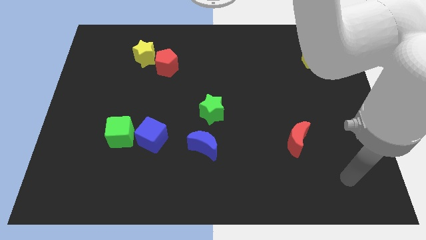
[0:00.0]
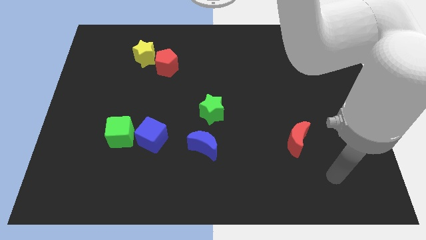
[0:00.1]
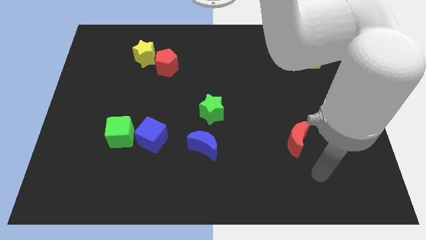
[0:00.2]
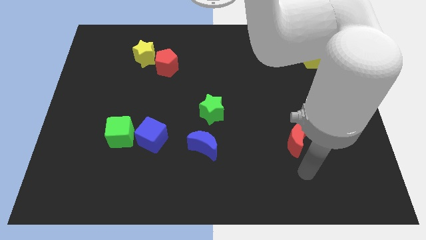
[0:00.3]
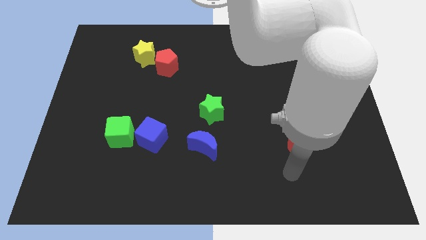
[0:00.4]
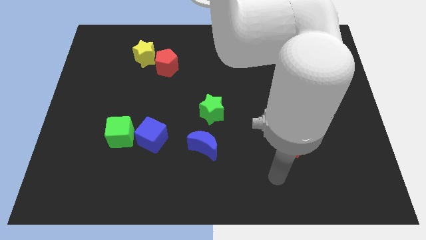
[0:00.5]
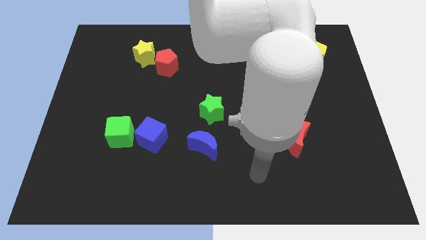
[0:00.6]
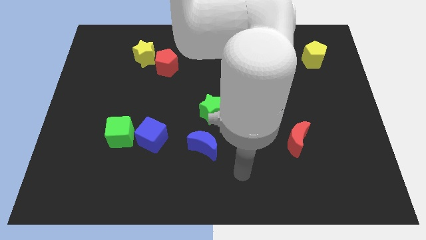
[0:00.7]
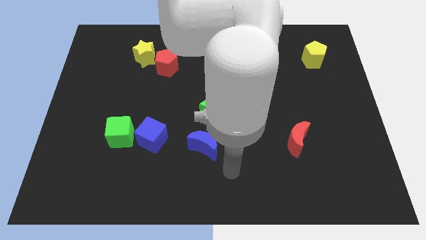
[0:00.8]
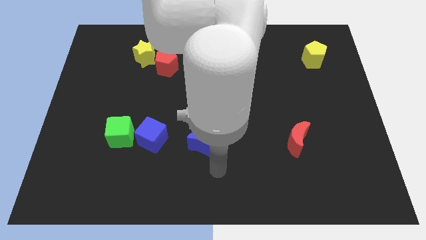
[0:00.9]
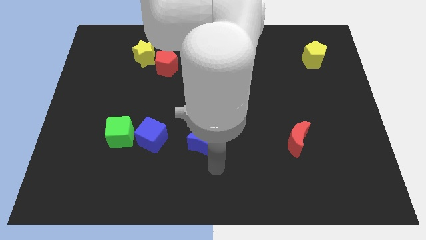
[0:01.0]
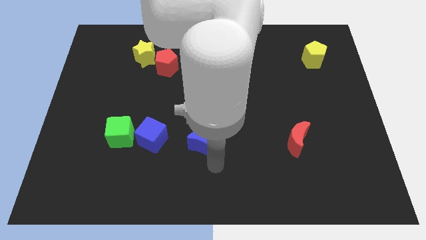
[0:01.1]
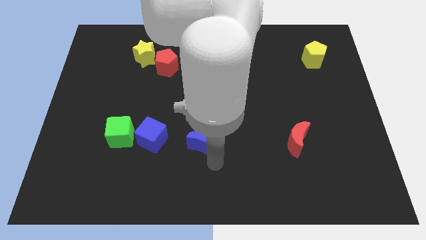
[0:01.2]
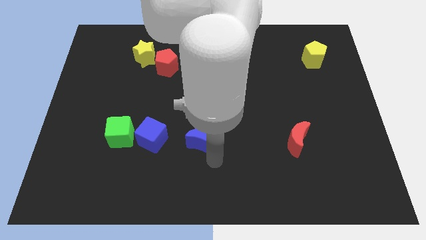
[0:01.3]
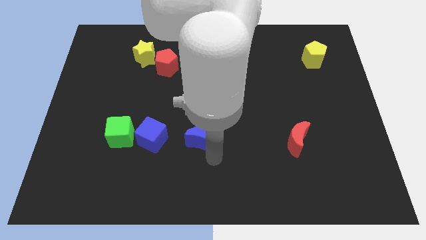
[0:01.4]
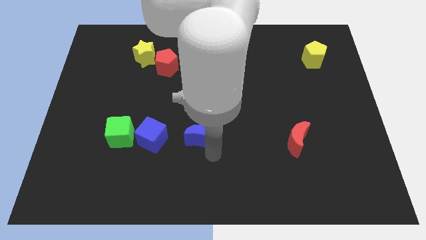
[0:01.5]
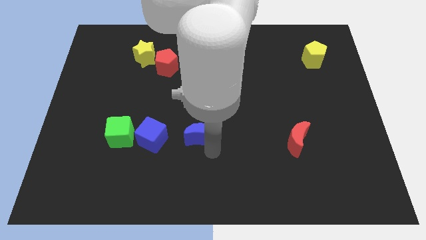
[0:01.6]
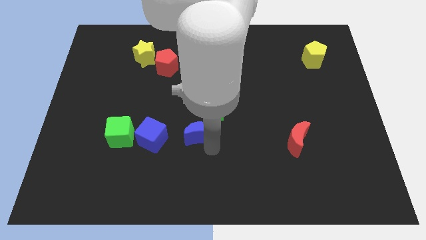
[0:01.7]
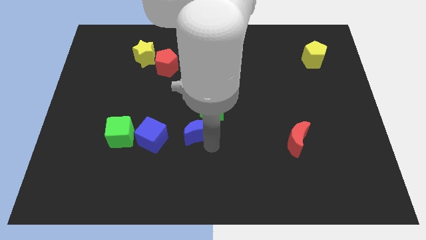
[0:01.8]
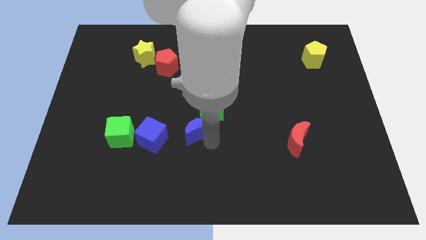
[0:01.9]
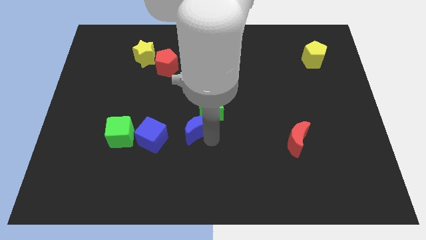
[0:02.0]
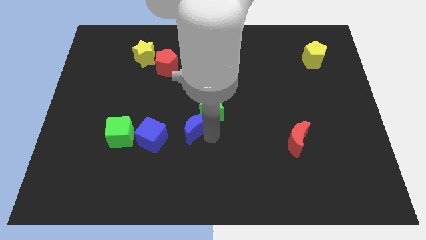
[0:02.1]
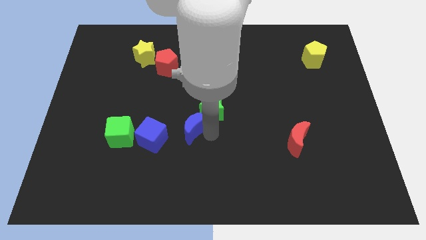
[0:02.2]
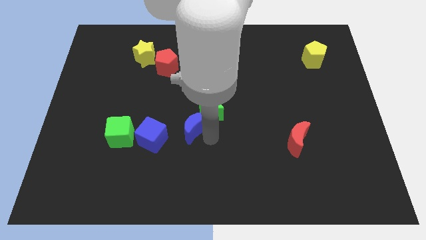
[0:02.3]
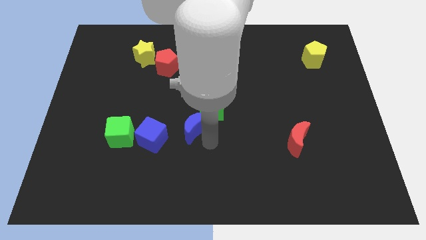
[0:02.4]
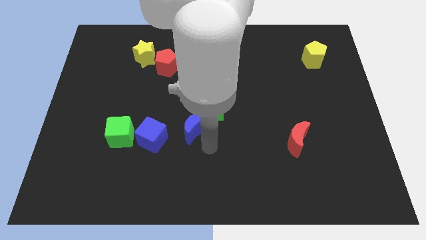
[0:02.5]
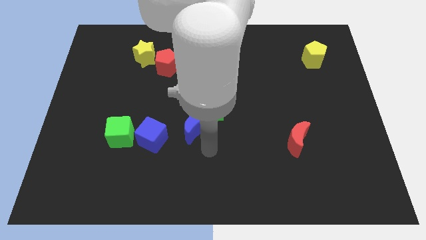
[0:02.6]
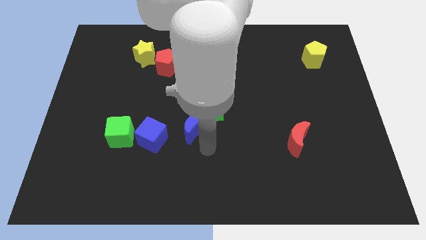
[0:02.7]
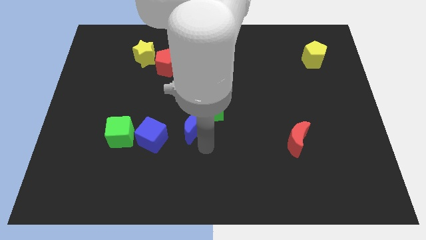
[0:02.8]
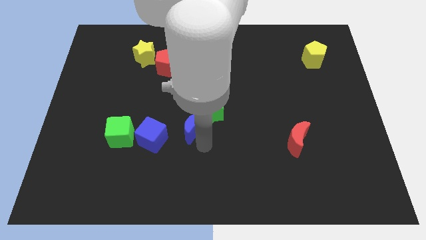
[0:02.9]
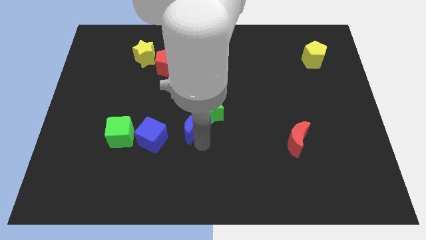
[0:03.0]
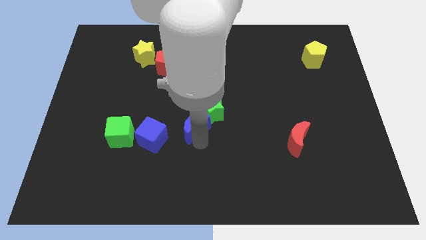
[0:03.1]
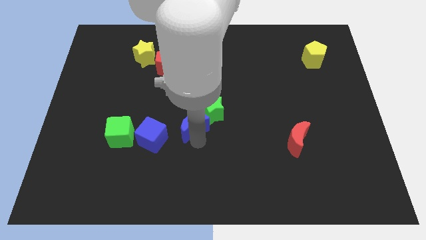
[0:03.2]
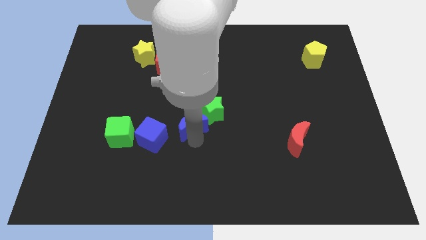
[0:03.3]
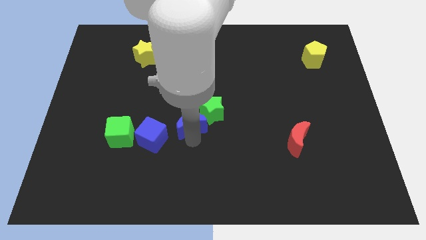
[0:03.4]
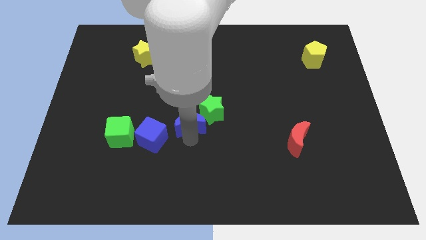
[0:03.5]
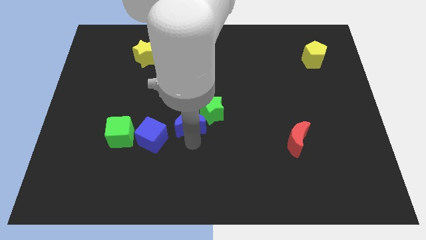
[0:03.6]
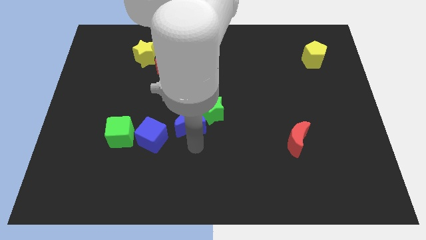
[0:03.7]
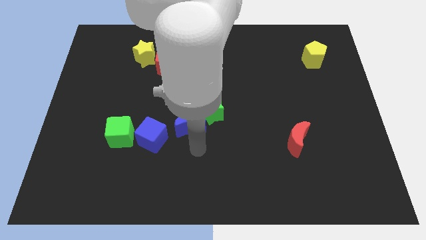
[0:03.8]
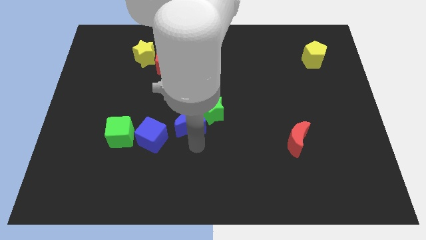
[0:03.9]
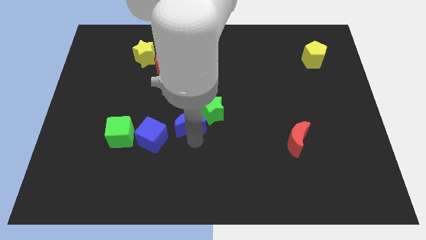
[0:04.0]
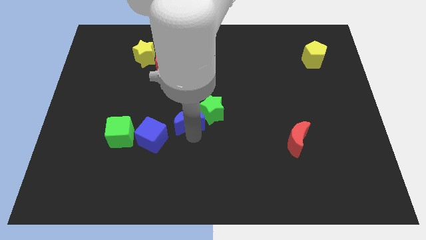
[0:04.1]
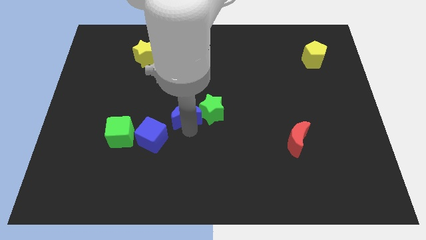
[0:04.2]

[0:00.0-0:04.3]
slide the blue moon a little upwards

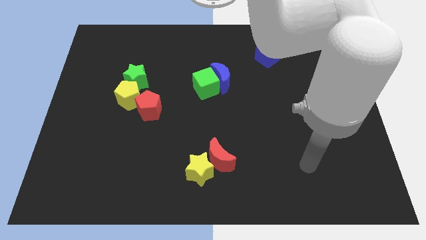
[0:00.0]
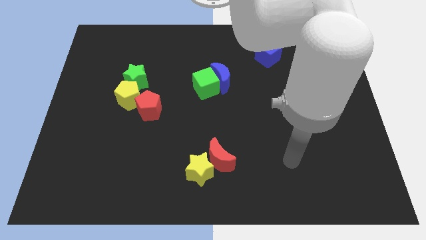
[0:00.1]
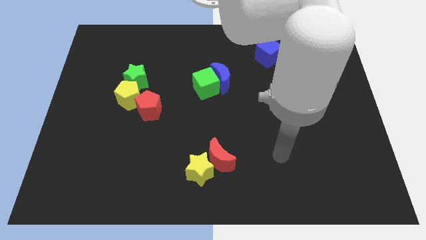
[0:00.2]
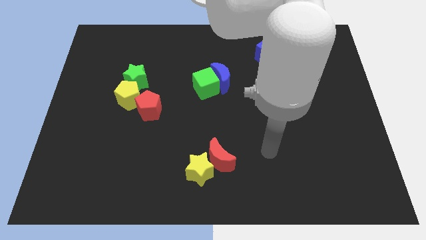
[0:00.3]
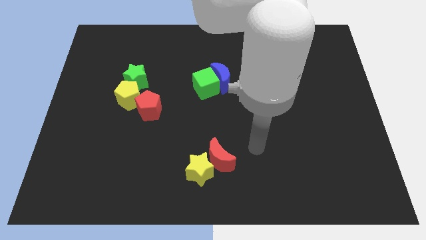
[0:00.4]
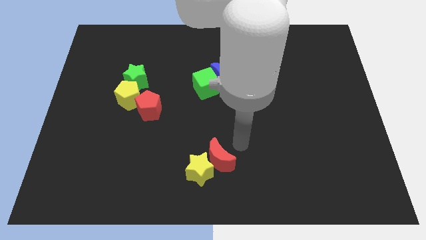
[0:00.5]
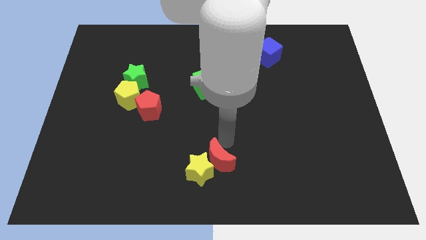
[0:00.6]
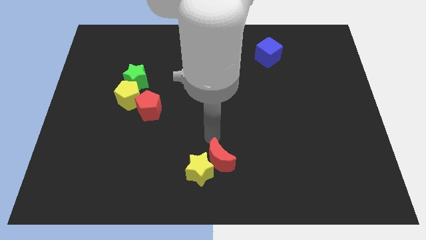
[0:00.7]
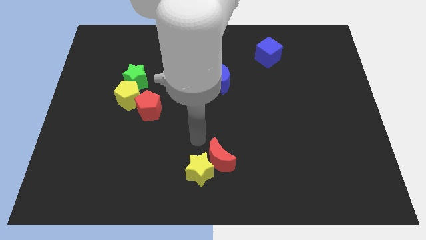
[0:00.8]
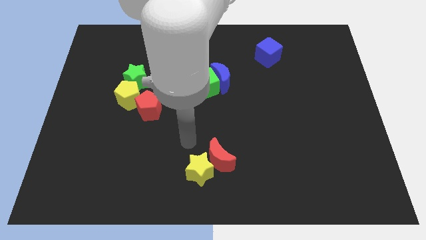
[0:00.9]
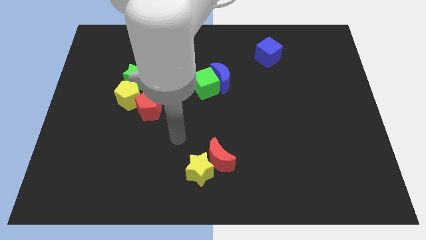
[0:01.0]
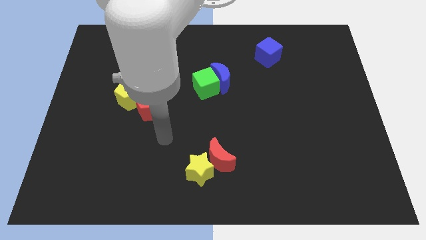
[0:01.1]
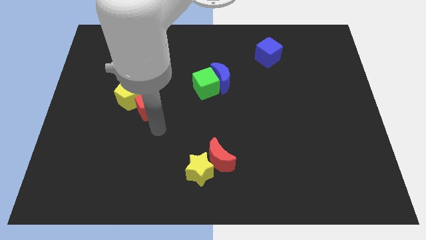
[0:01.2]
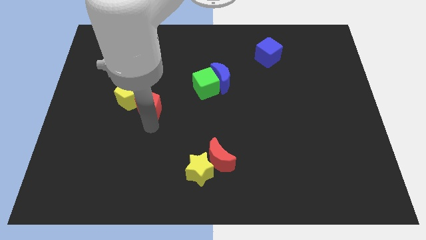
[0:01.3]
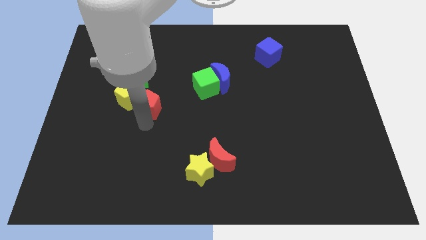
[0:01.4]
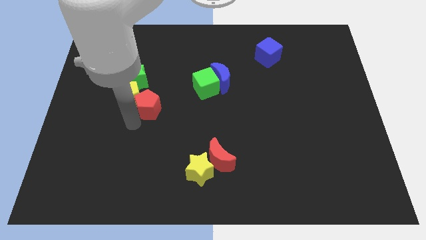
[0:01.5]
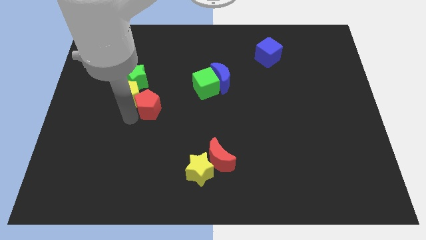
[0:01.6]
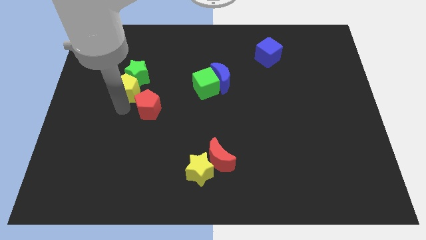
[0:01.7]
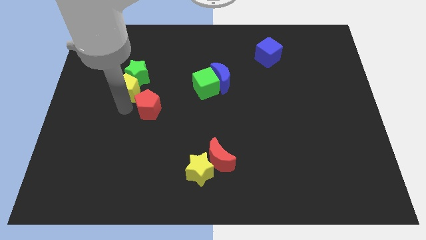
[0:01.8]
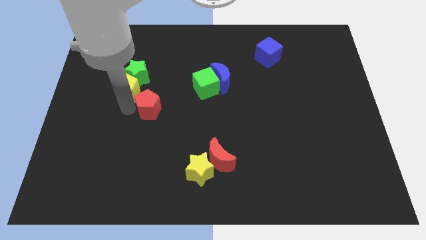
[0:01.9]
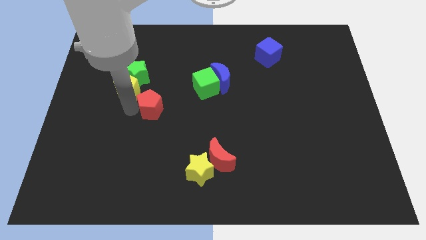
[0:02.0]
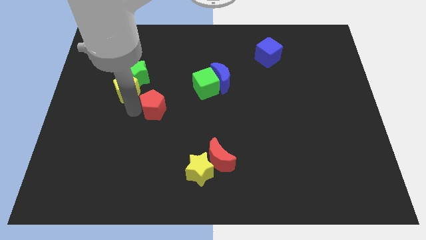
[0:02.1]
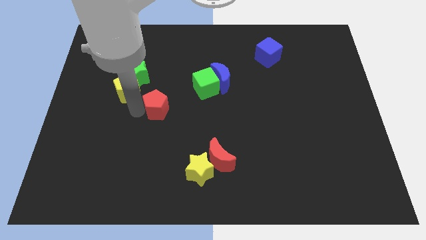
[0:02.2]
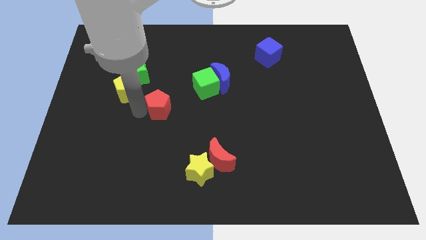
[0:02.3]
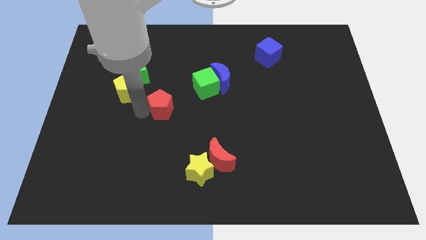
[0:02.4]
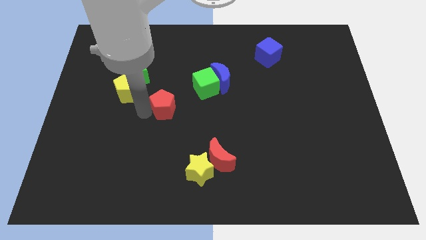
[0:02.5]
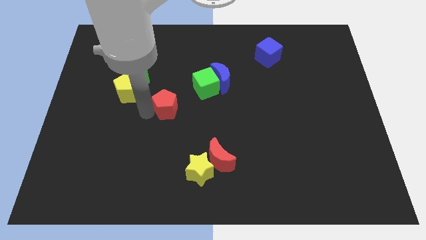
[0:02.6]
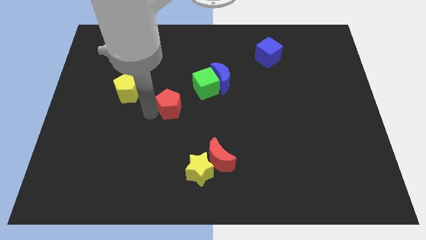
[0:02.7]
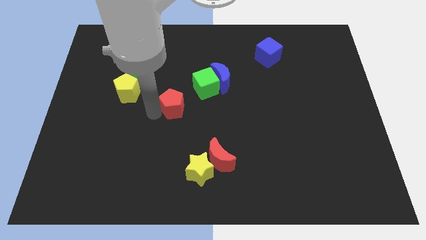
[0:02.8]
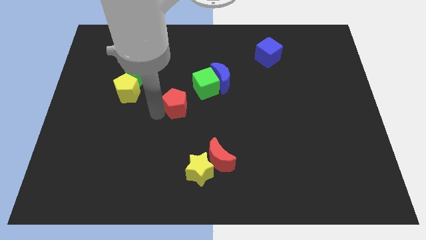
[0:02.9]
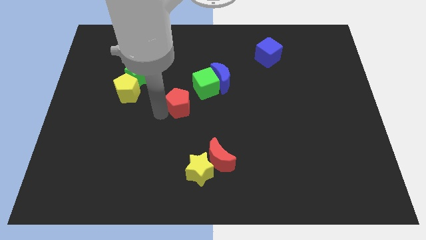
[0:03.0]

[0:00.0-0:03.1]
slide the red pentagon right somewhat

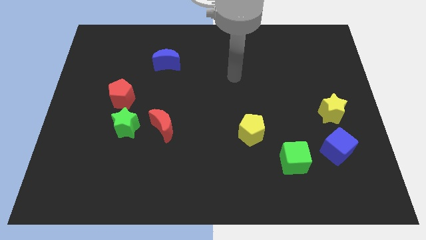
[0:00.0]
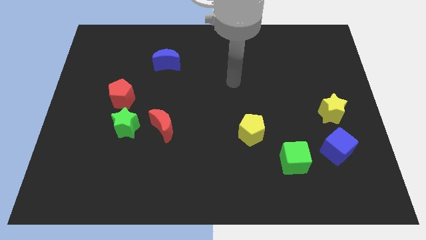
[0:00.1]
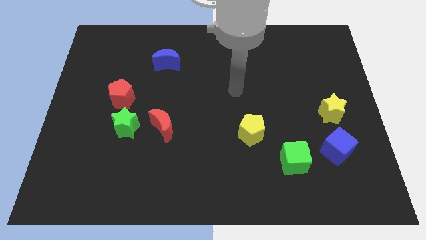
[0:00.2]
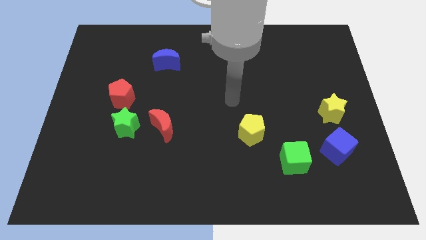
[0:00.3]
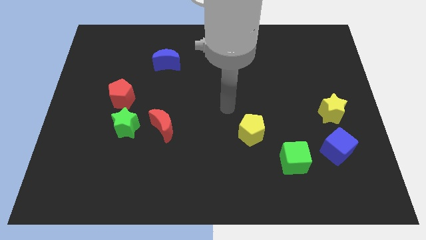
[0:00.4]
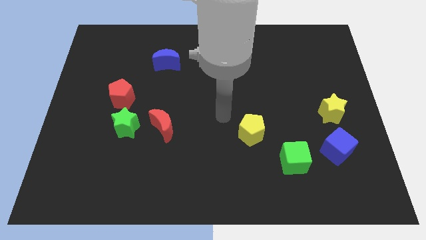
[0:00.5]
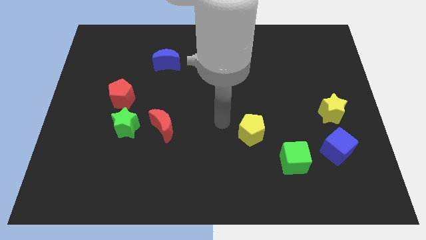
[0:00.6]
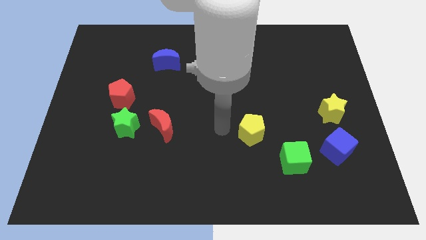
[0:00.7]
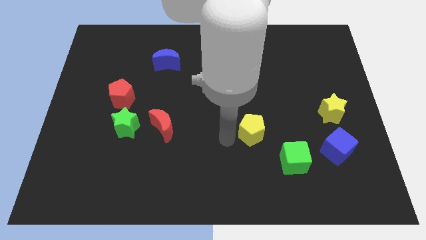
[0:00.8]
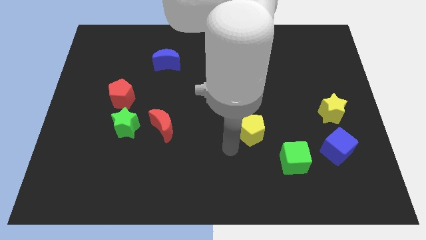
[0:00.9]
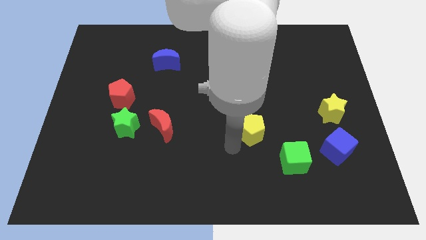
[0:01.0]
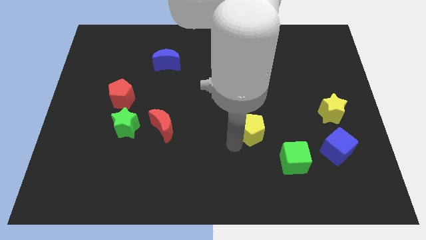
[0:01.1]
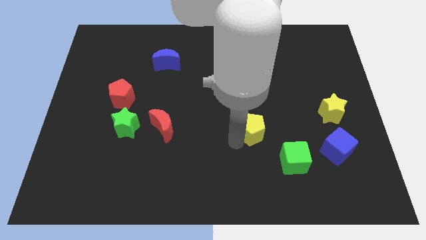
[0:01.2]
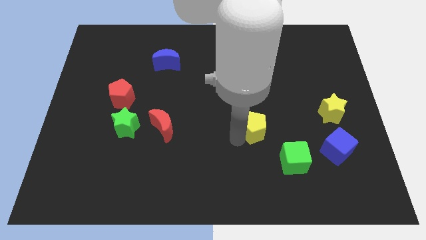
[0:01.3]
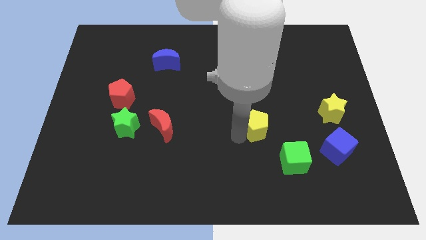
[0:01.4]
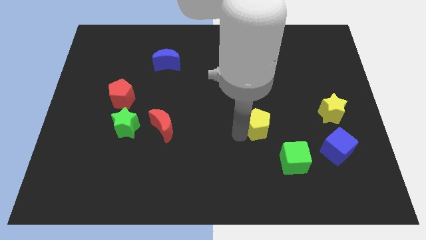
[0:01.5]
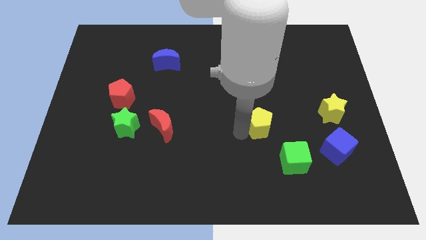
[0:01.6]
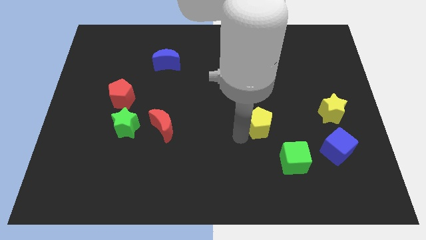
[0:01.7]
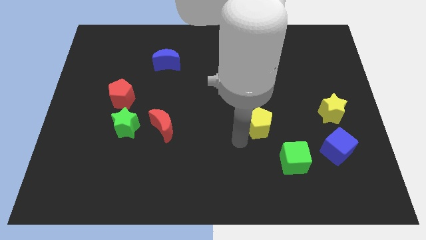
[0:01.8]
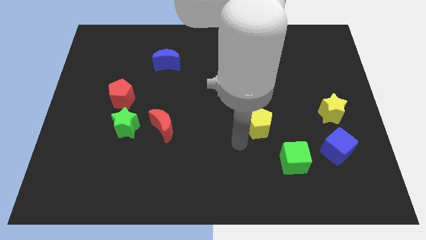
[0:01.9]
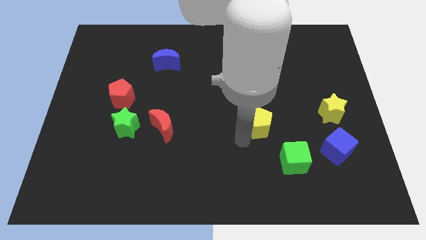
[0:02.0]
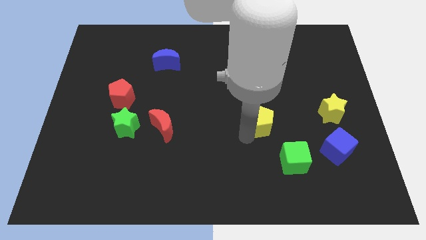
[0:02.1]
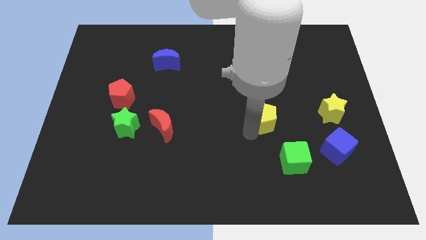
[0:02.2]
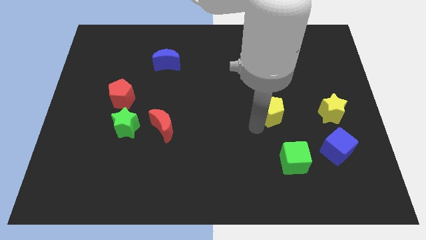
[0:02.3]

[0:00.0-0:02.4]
slide the yellow pentagon a little bit upwards and to the right diagonally
